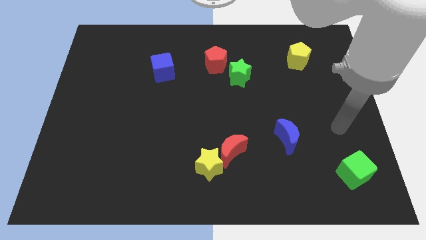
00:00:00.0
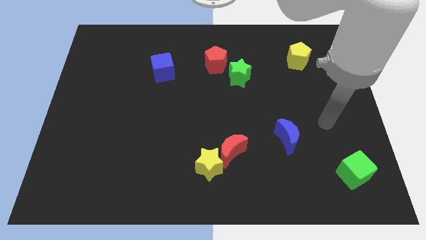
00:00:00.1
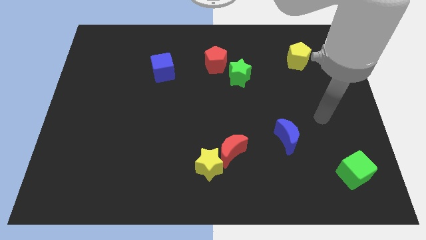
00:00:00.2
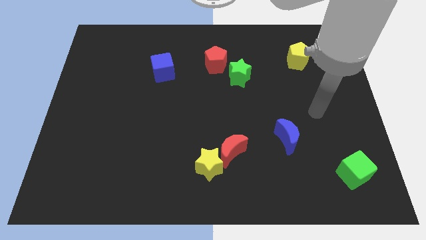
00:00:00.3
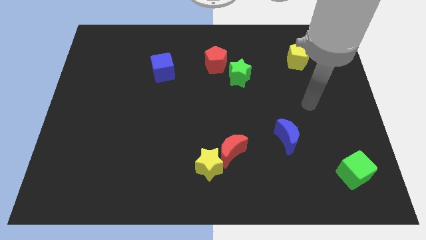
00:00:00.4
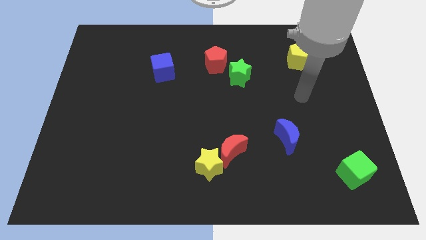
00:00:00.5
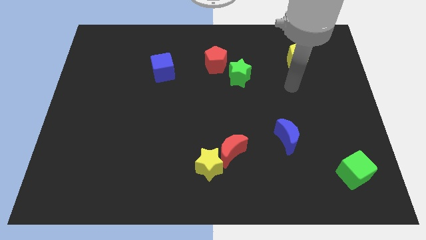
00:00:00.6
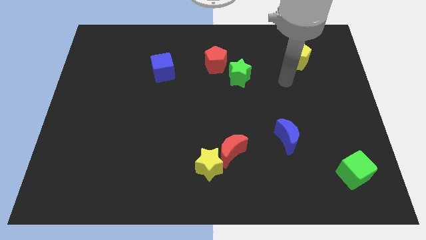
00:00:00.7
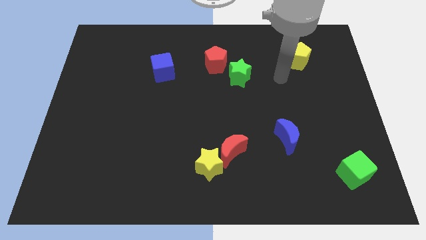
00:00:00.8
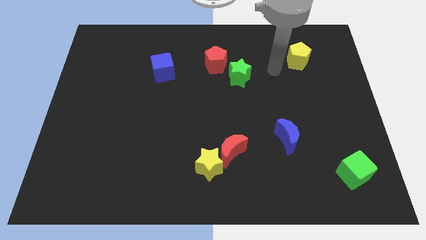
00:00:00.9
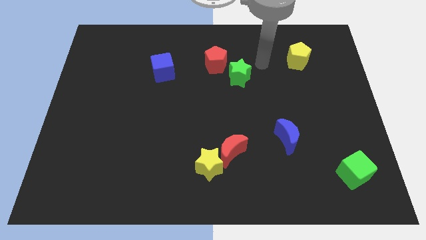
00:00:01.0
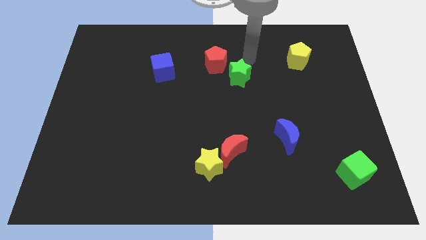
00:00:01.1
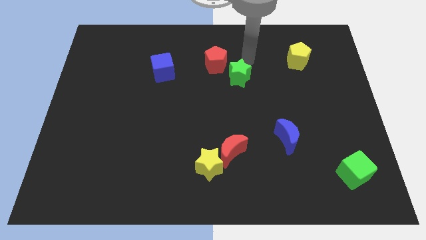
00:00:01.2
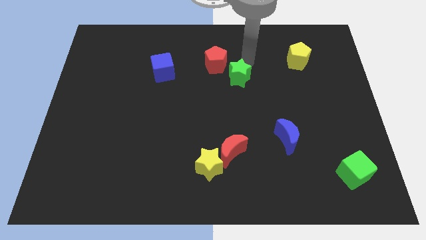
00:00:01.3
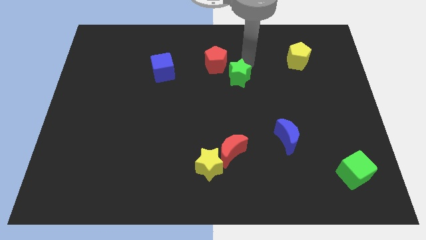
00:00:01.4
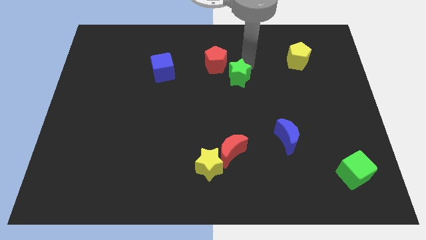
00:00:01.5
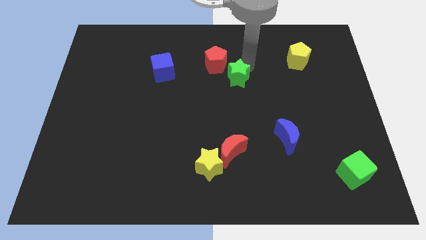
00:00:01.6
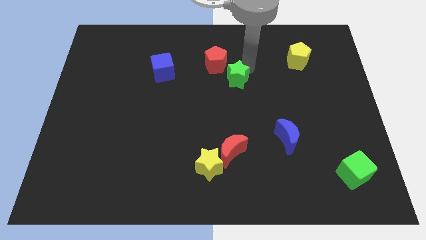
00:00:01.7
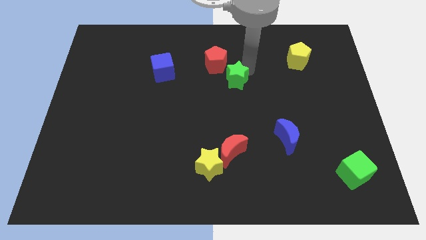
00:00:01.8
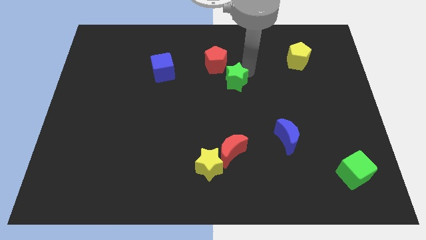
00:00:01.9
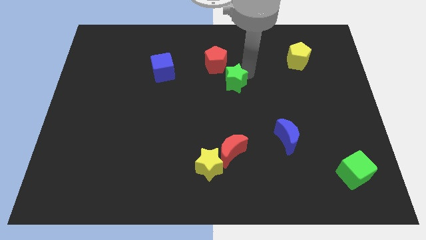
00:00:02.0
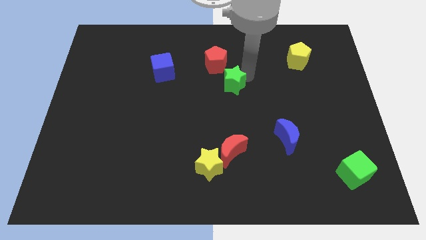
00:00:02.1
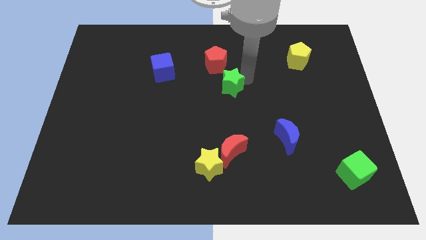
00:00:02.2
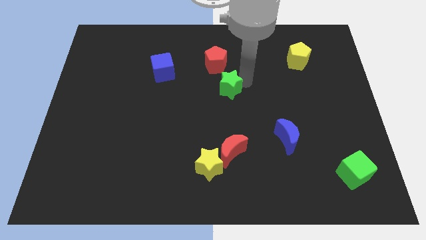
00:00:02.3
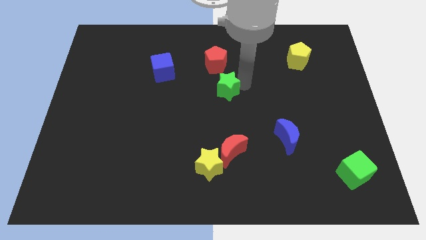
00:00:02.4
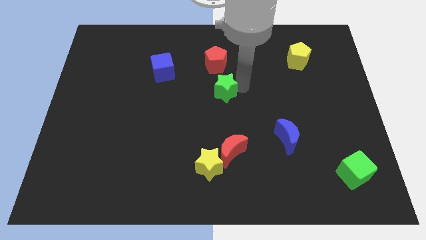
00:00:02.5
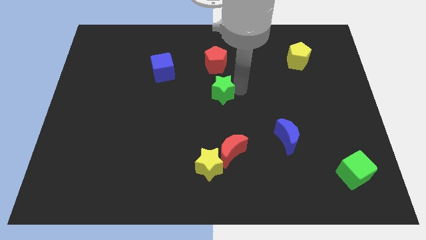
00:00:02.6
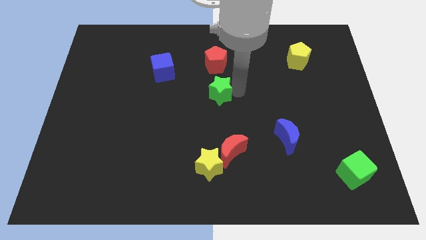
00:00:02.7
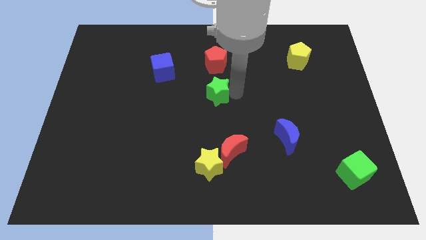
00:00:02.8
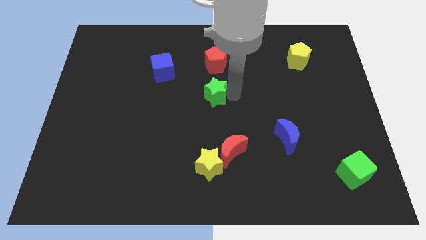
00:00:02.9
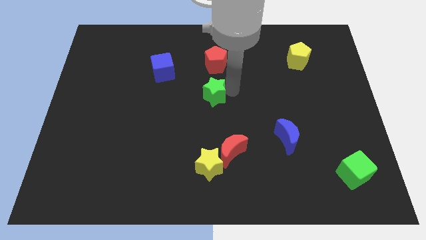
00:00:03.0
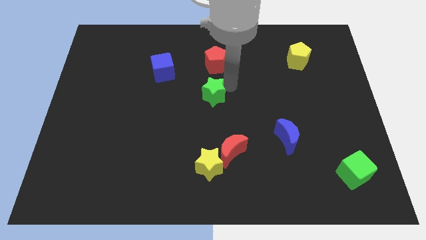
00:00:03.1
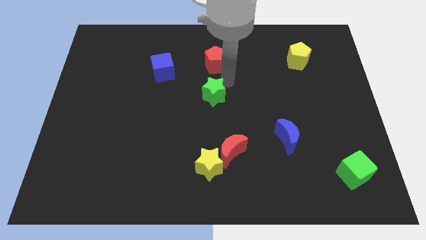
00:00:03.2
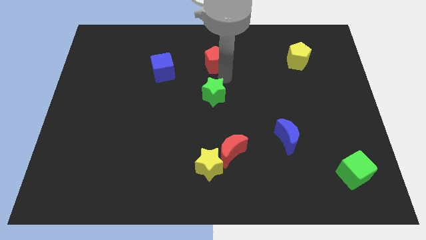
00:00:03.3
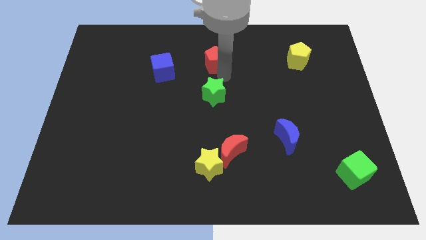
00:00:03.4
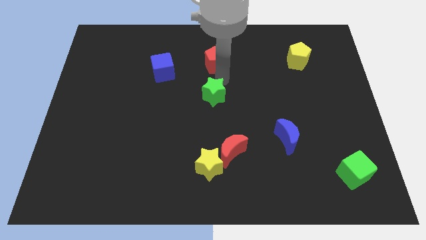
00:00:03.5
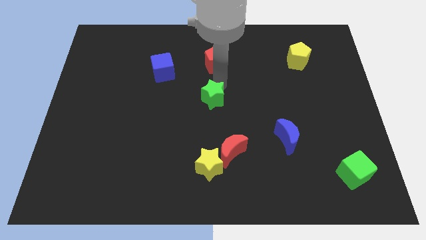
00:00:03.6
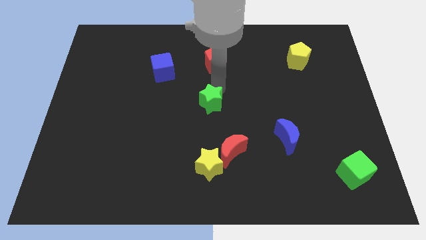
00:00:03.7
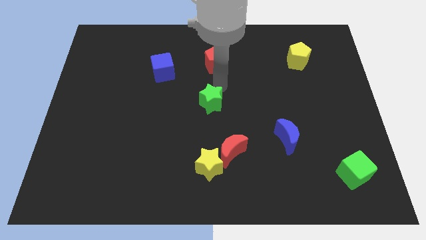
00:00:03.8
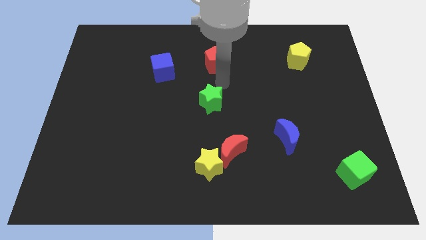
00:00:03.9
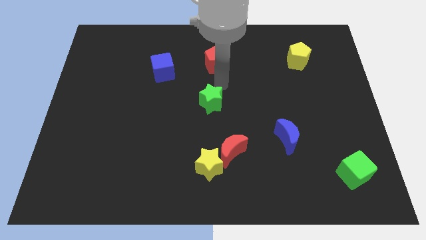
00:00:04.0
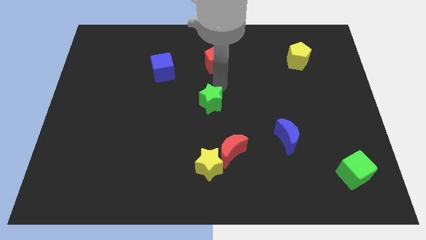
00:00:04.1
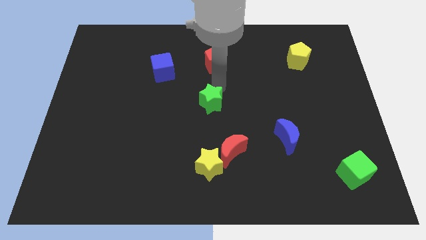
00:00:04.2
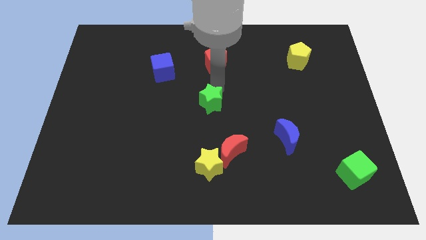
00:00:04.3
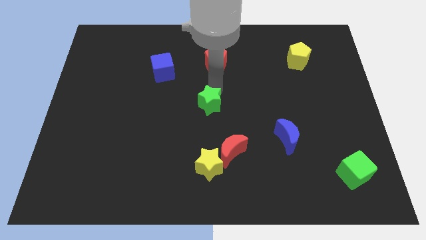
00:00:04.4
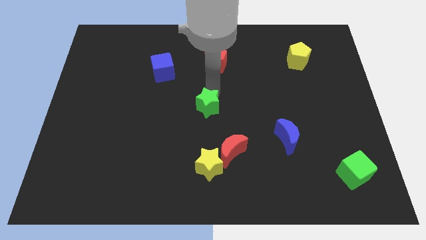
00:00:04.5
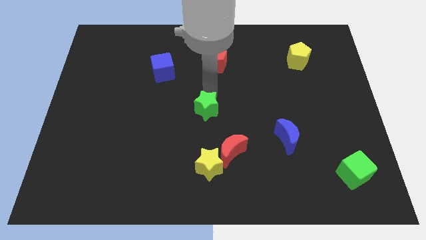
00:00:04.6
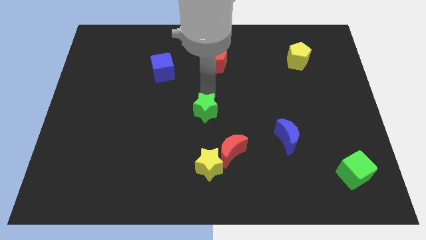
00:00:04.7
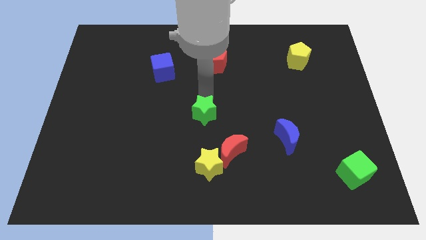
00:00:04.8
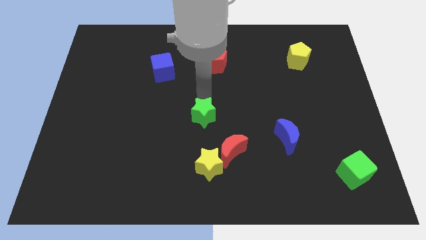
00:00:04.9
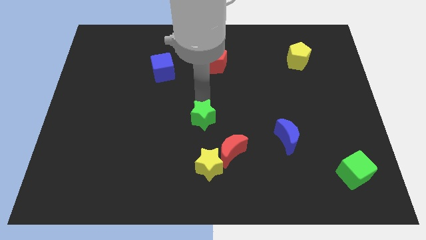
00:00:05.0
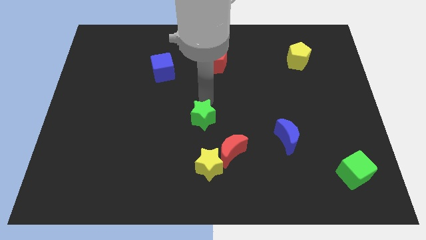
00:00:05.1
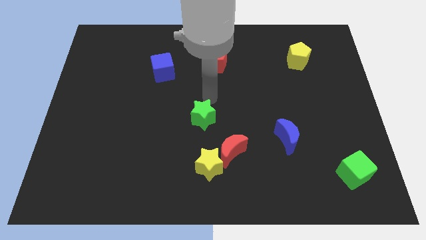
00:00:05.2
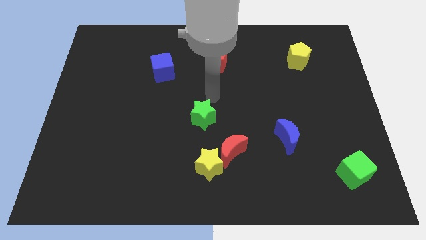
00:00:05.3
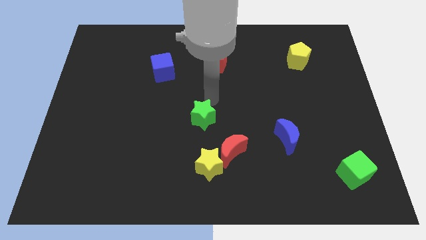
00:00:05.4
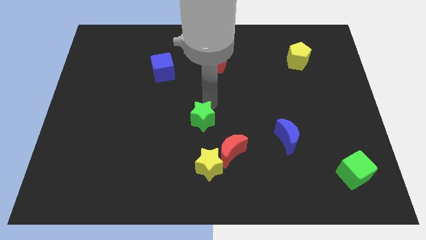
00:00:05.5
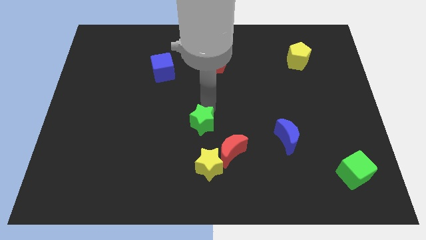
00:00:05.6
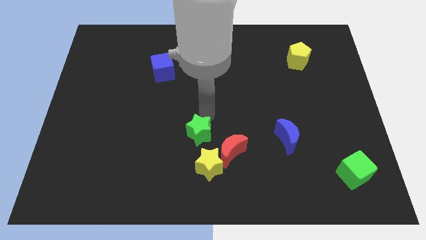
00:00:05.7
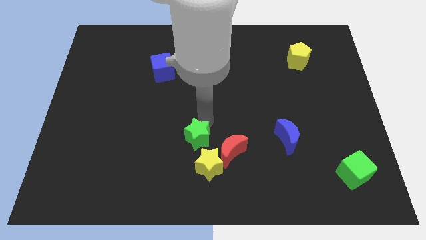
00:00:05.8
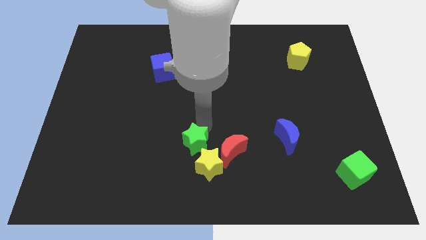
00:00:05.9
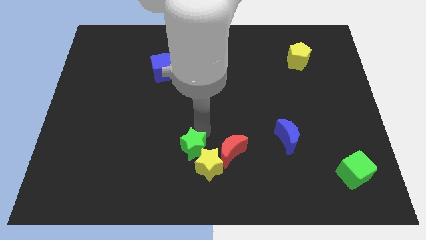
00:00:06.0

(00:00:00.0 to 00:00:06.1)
push the green star left of the yellow star
